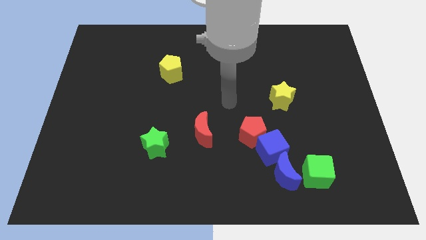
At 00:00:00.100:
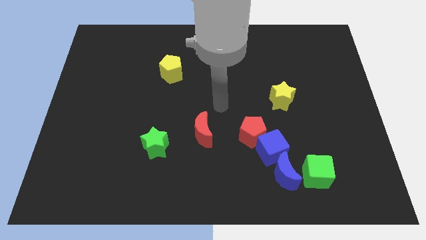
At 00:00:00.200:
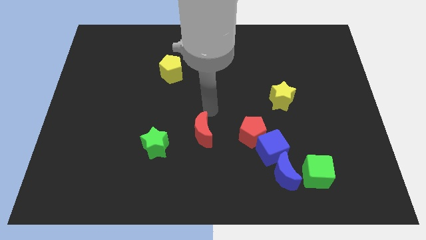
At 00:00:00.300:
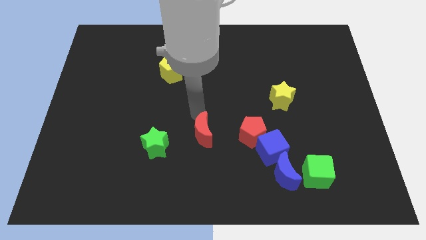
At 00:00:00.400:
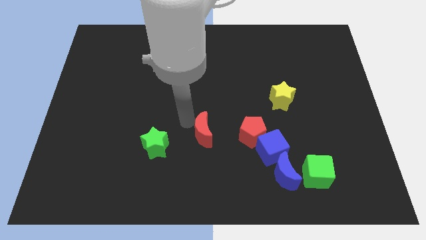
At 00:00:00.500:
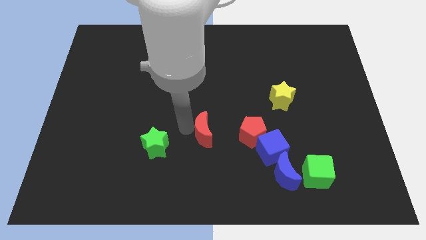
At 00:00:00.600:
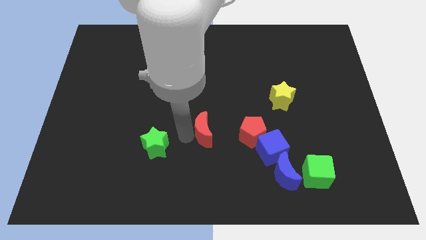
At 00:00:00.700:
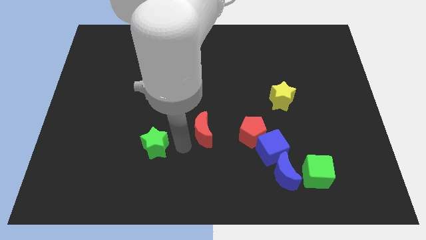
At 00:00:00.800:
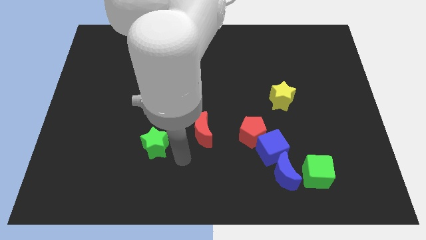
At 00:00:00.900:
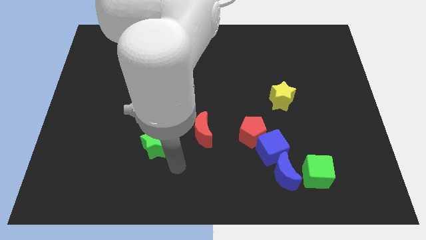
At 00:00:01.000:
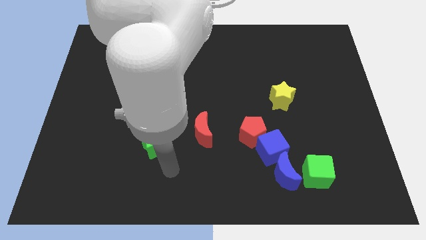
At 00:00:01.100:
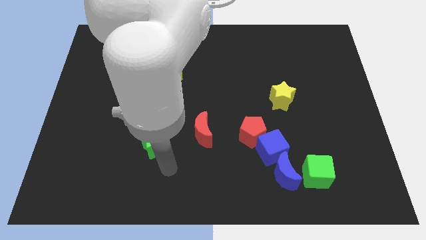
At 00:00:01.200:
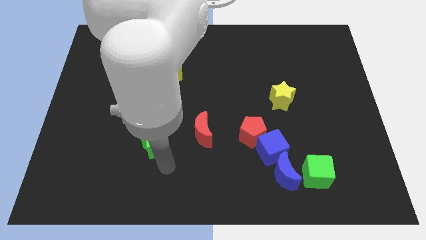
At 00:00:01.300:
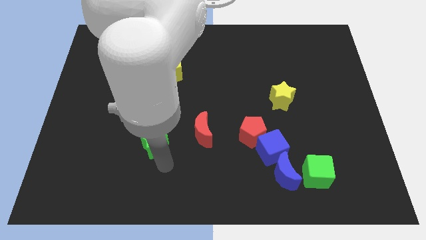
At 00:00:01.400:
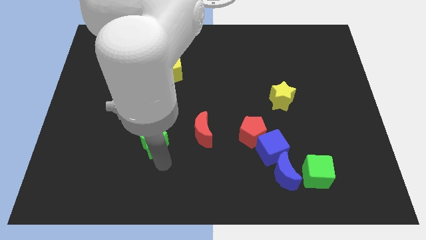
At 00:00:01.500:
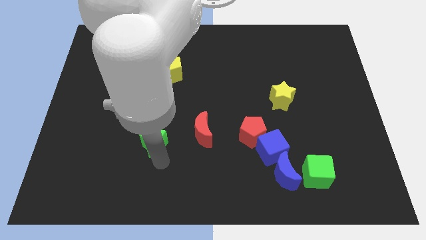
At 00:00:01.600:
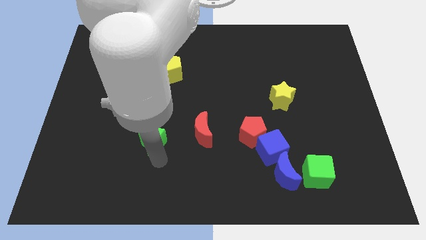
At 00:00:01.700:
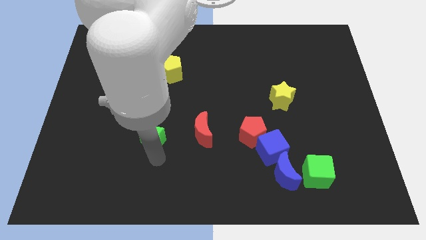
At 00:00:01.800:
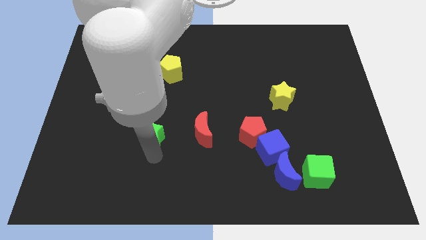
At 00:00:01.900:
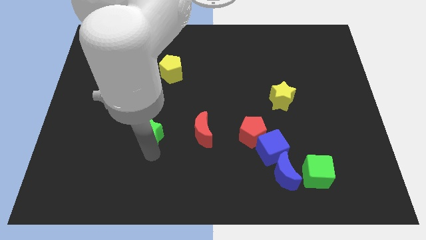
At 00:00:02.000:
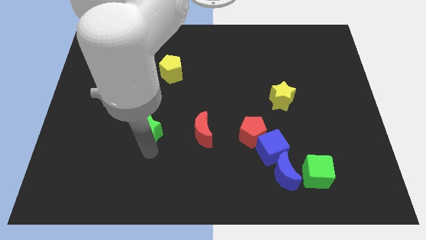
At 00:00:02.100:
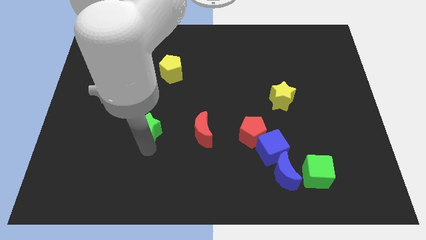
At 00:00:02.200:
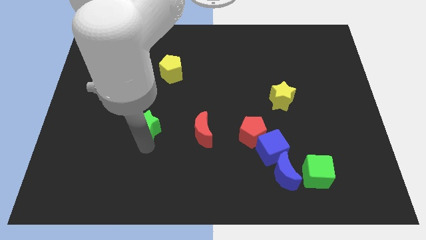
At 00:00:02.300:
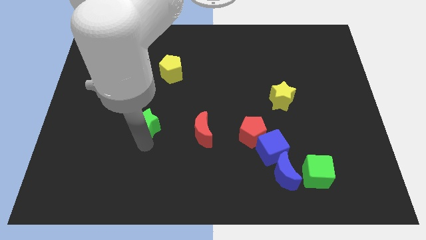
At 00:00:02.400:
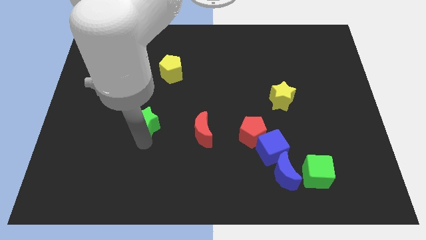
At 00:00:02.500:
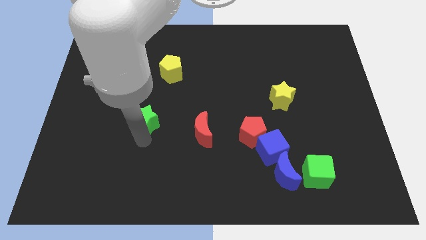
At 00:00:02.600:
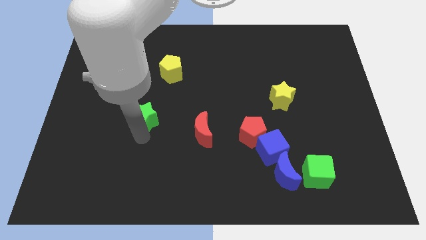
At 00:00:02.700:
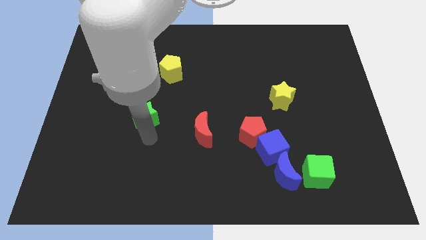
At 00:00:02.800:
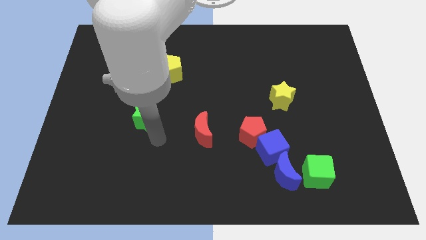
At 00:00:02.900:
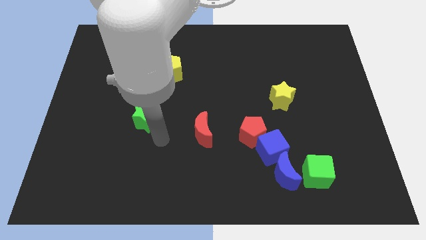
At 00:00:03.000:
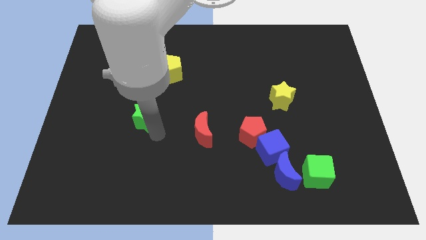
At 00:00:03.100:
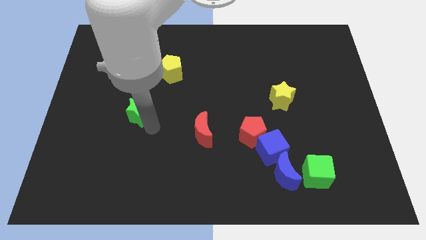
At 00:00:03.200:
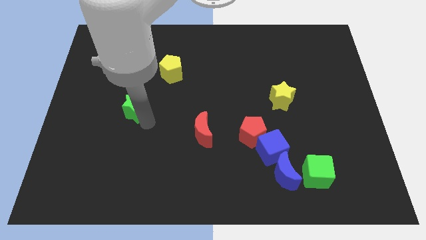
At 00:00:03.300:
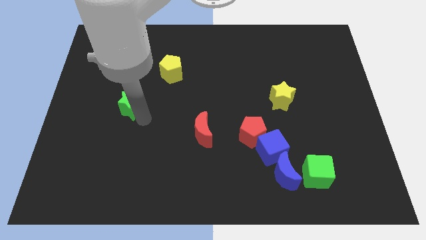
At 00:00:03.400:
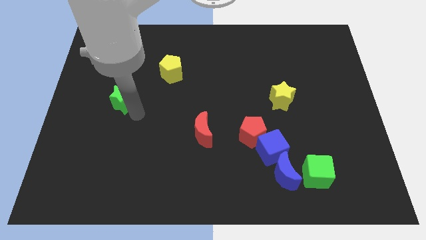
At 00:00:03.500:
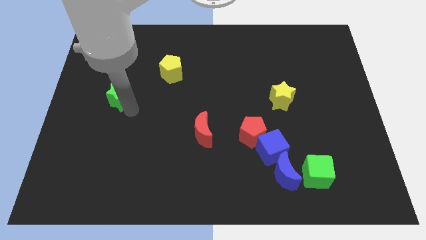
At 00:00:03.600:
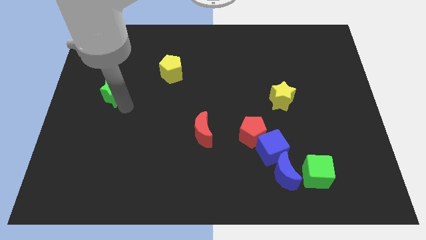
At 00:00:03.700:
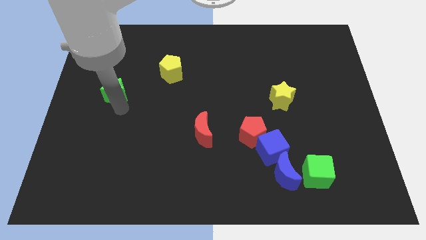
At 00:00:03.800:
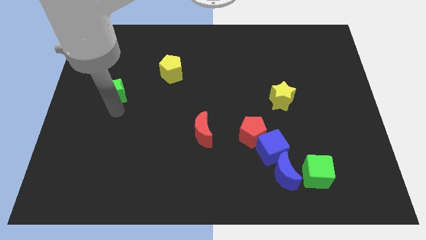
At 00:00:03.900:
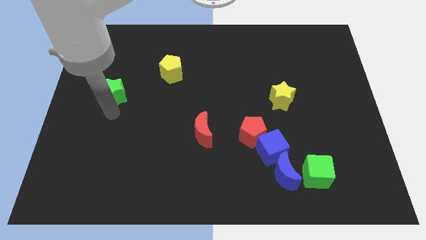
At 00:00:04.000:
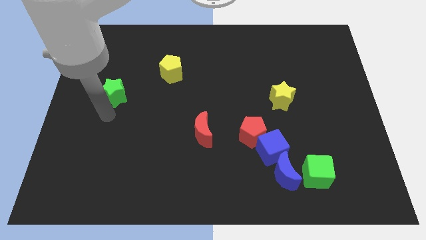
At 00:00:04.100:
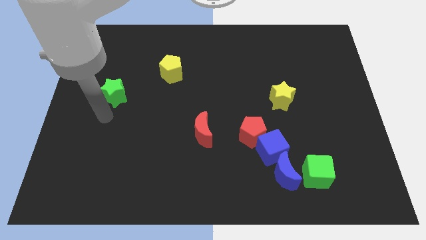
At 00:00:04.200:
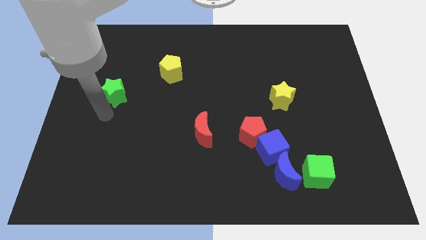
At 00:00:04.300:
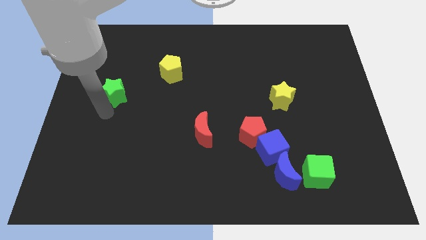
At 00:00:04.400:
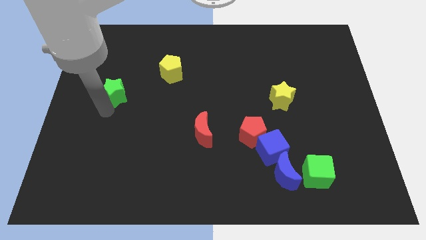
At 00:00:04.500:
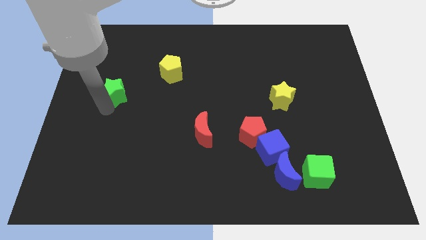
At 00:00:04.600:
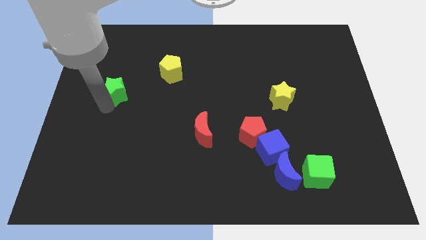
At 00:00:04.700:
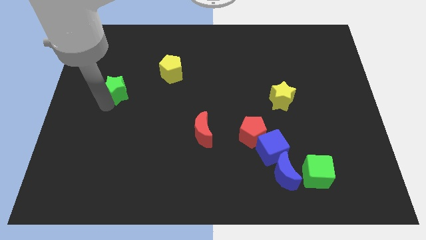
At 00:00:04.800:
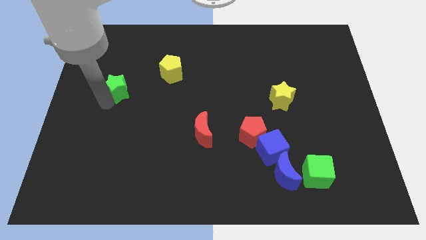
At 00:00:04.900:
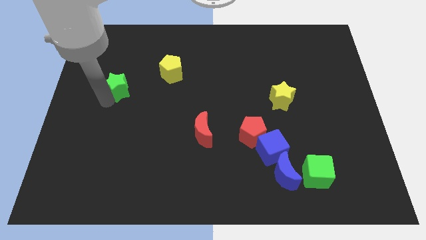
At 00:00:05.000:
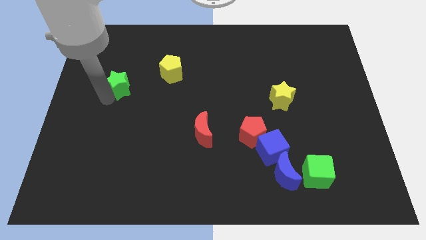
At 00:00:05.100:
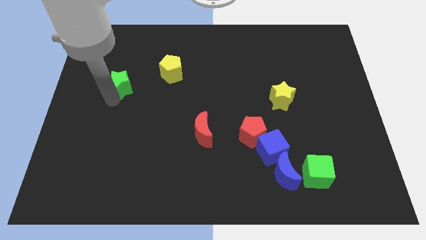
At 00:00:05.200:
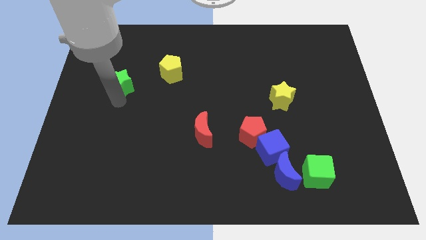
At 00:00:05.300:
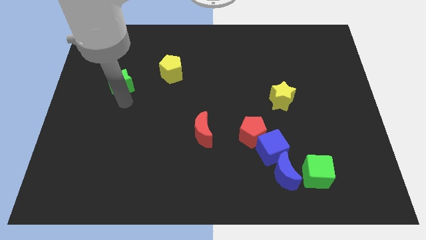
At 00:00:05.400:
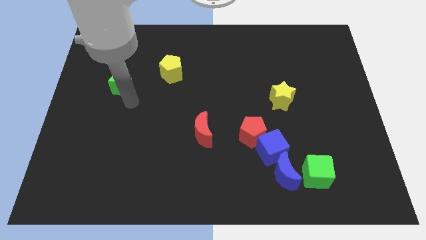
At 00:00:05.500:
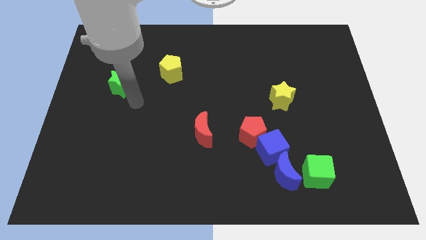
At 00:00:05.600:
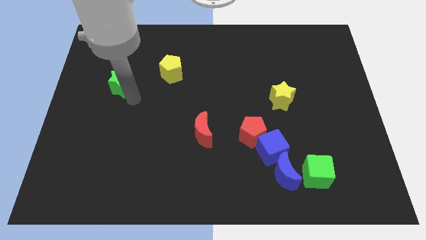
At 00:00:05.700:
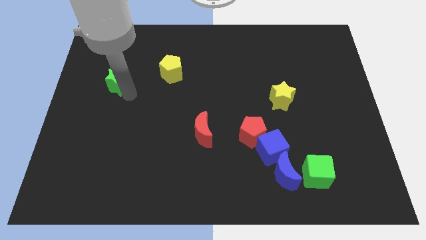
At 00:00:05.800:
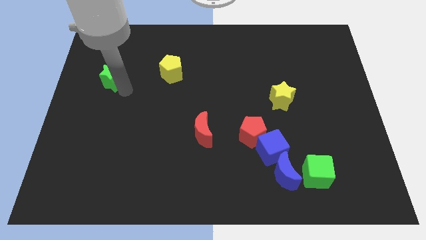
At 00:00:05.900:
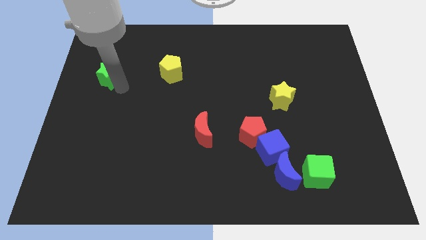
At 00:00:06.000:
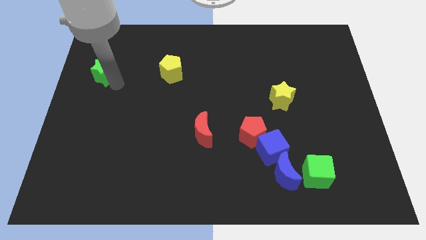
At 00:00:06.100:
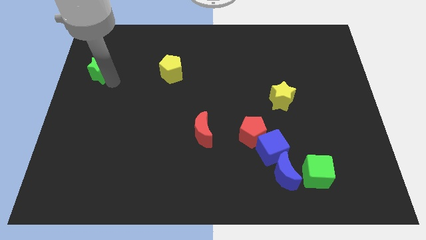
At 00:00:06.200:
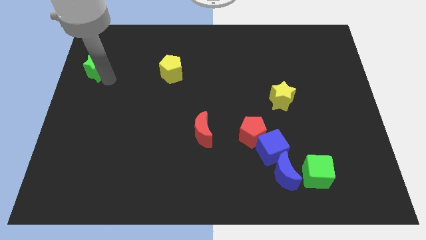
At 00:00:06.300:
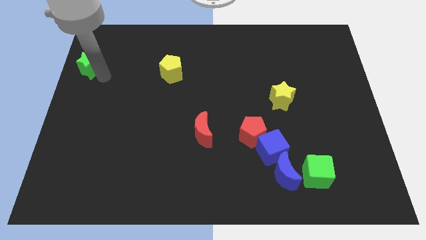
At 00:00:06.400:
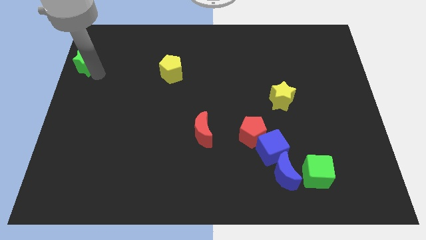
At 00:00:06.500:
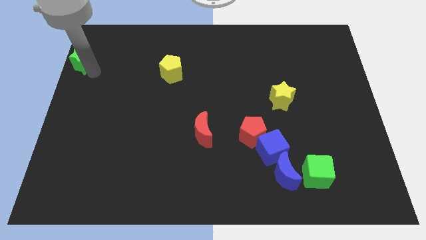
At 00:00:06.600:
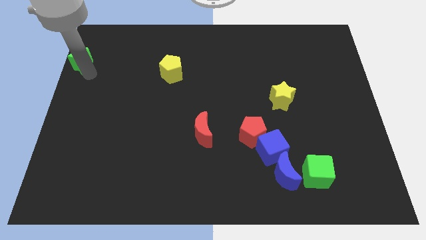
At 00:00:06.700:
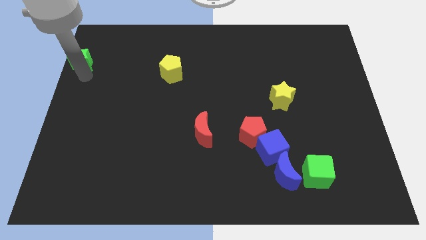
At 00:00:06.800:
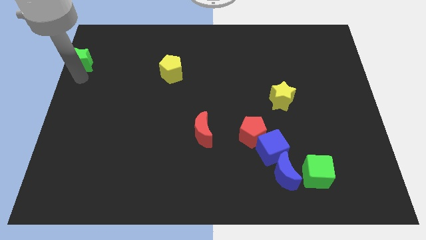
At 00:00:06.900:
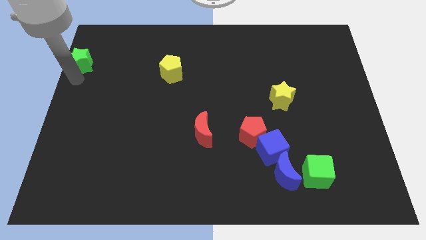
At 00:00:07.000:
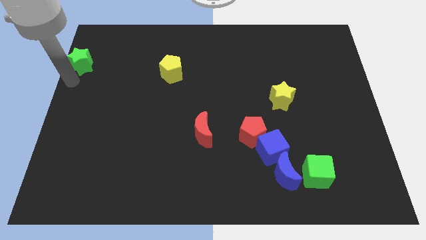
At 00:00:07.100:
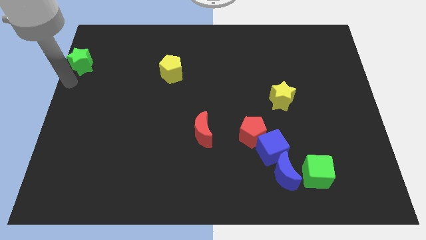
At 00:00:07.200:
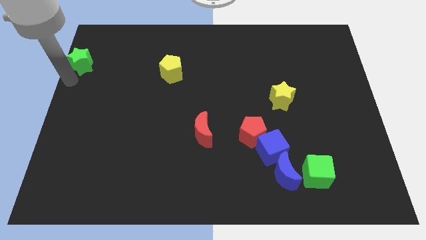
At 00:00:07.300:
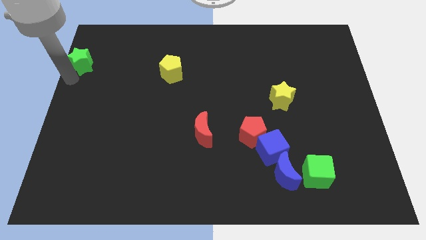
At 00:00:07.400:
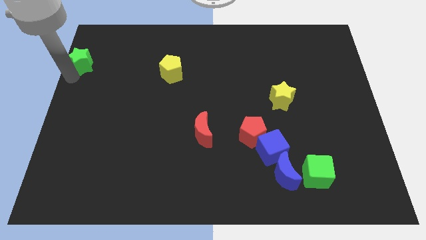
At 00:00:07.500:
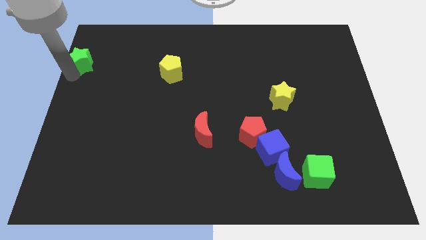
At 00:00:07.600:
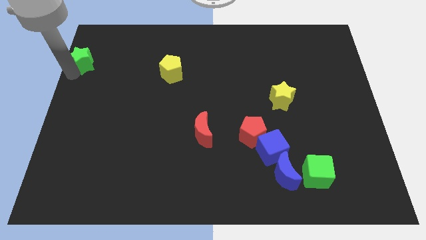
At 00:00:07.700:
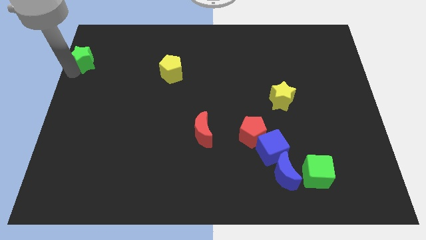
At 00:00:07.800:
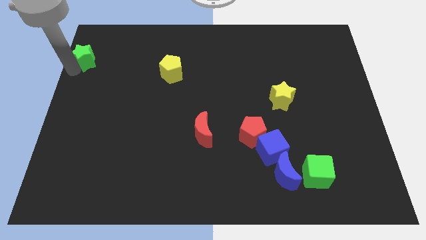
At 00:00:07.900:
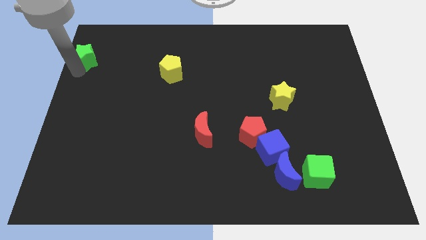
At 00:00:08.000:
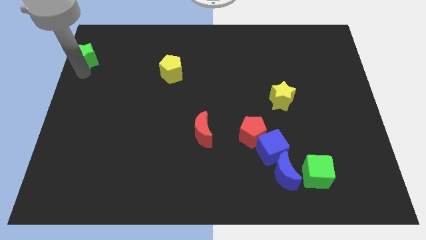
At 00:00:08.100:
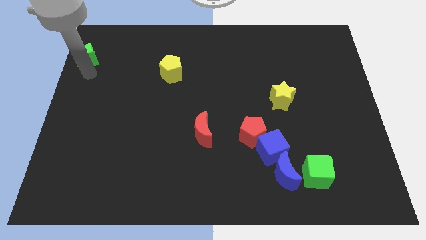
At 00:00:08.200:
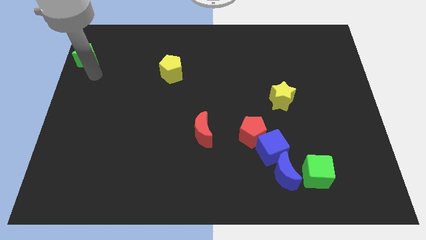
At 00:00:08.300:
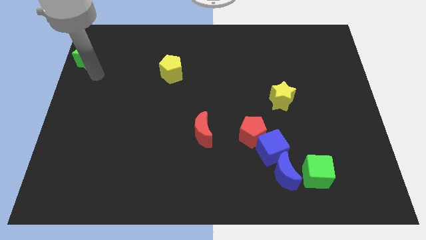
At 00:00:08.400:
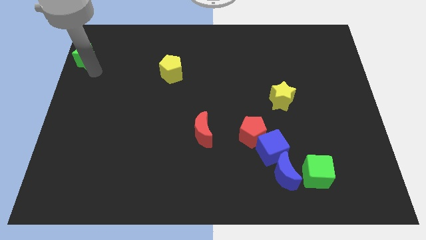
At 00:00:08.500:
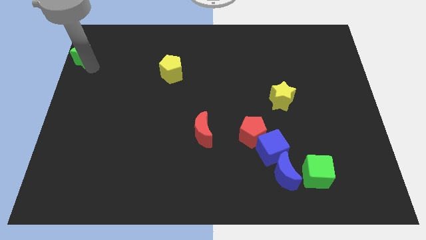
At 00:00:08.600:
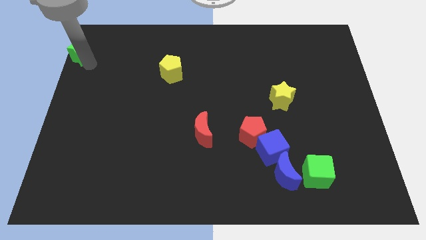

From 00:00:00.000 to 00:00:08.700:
move the green star to the top left corner
